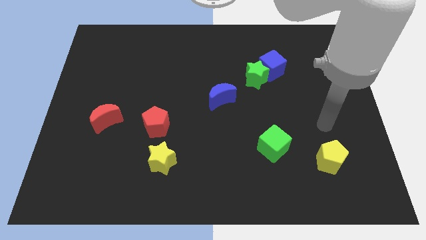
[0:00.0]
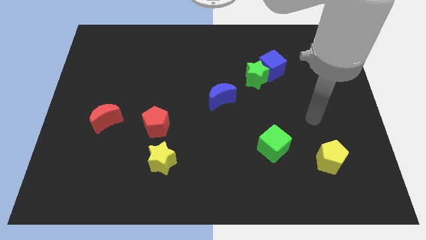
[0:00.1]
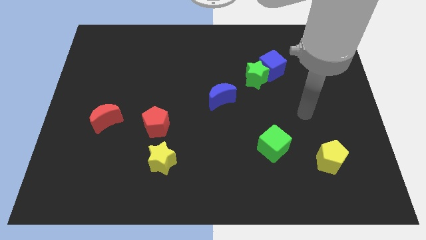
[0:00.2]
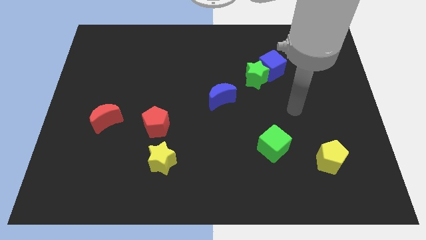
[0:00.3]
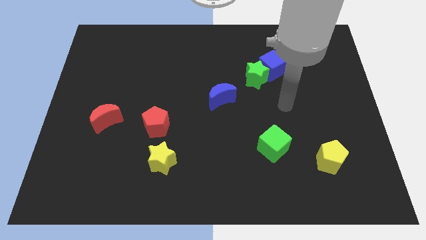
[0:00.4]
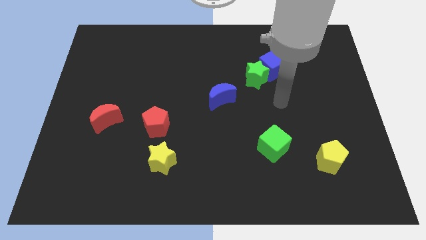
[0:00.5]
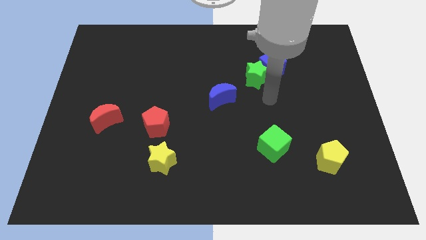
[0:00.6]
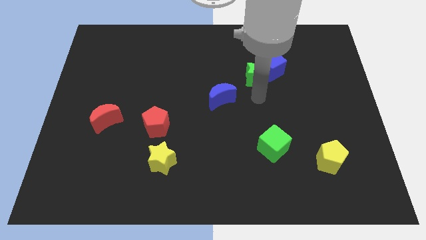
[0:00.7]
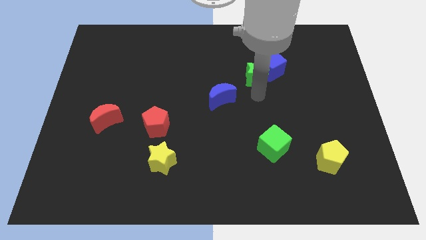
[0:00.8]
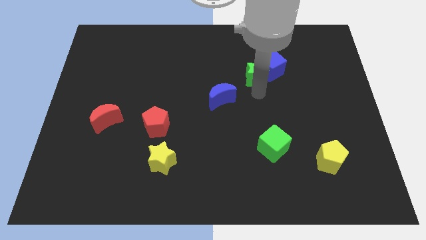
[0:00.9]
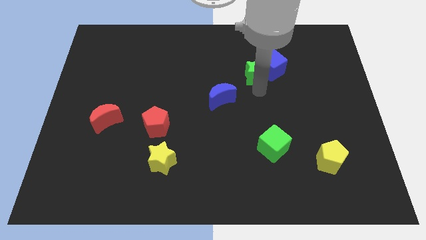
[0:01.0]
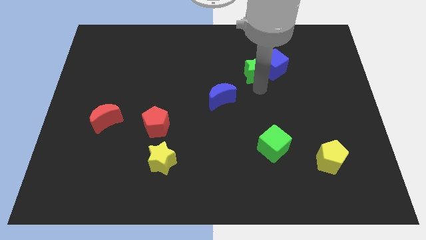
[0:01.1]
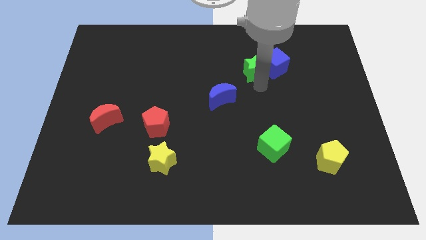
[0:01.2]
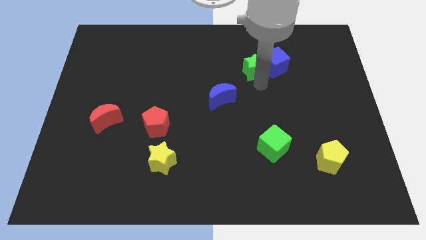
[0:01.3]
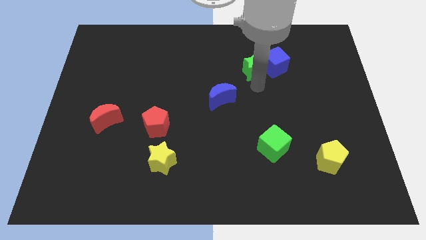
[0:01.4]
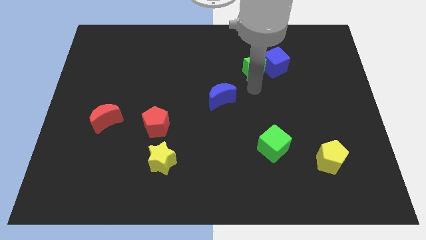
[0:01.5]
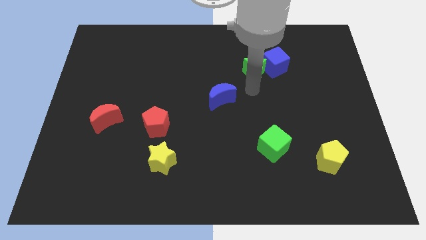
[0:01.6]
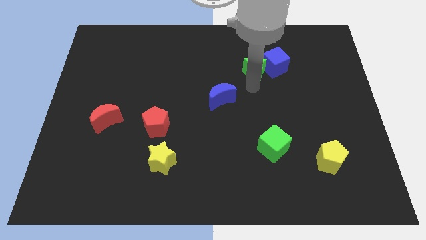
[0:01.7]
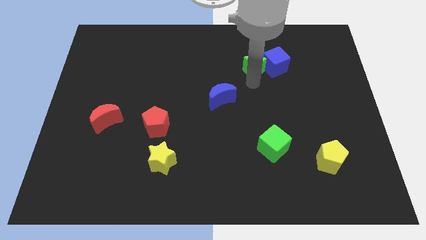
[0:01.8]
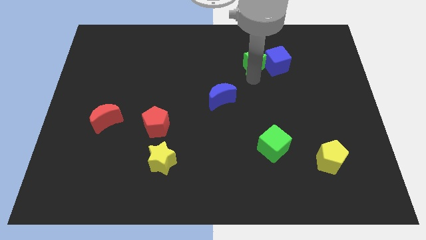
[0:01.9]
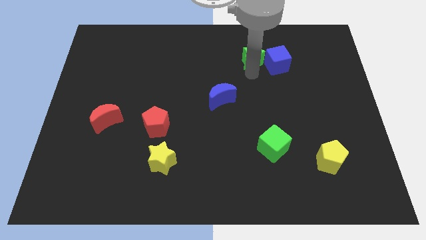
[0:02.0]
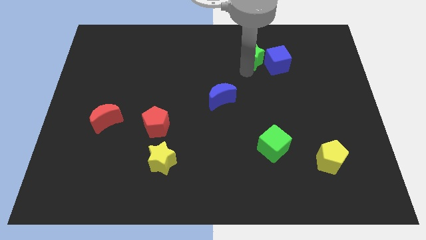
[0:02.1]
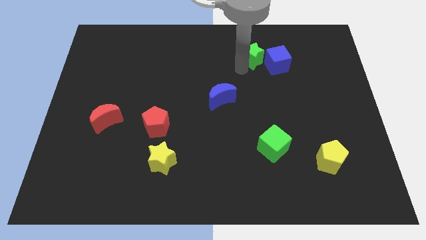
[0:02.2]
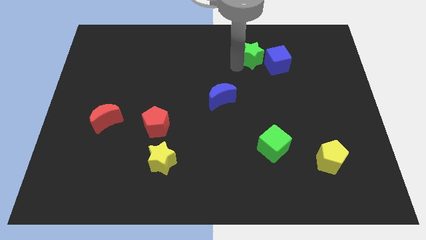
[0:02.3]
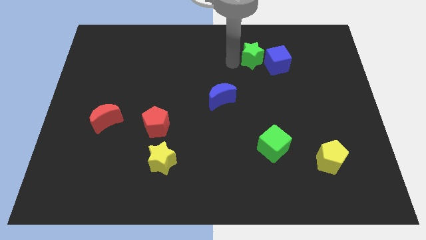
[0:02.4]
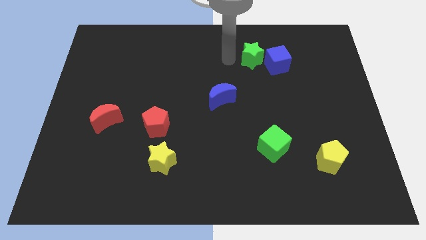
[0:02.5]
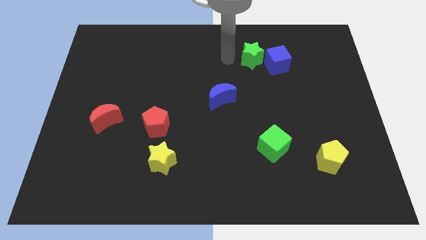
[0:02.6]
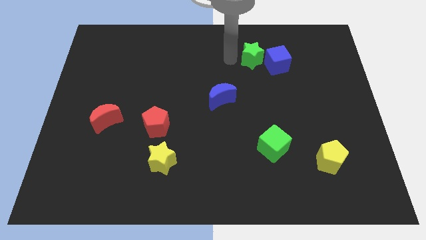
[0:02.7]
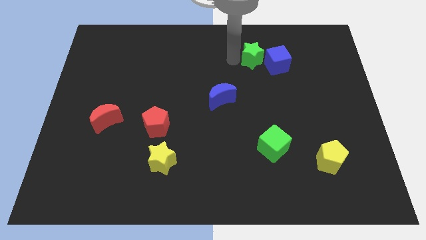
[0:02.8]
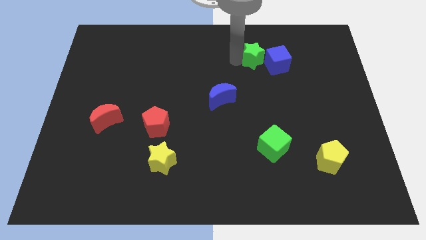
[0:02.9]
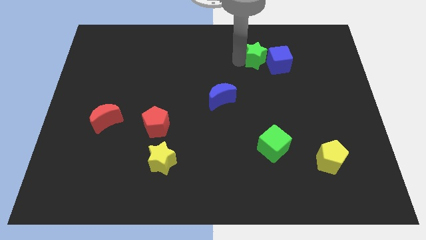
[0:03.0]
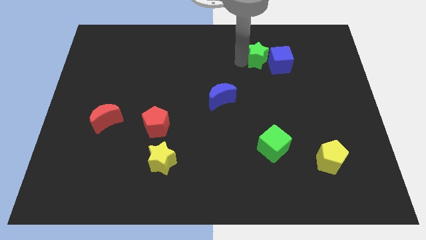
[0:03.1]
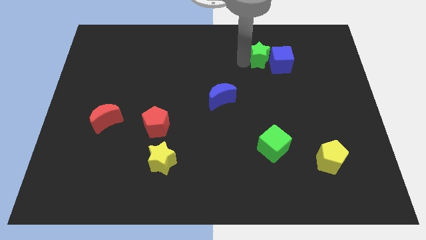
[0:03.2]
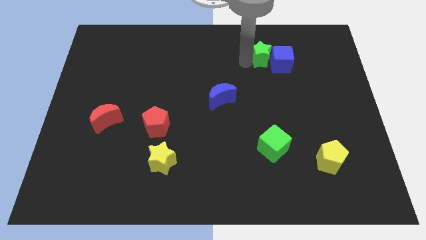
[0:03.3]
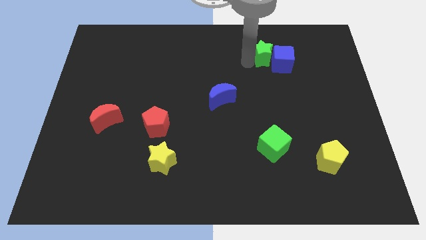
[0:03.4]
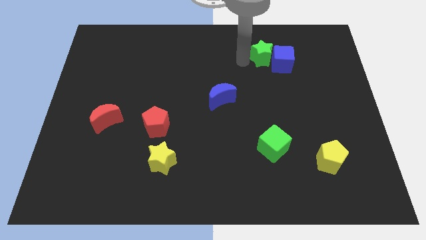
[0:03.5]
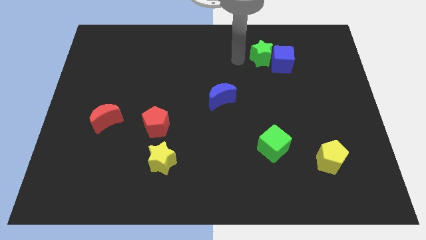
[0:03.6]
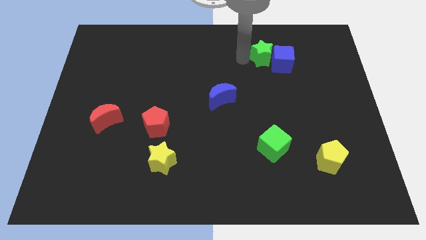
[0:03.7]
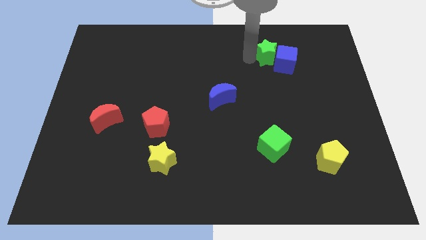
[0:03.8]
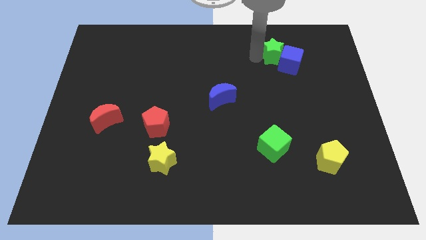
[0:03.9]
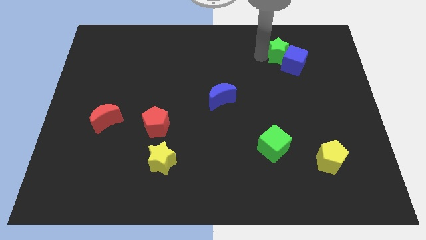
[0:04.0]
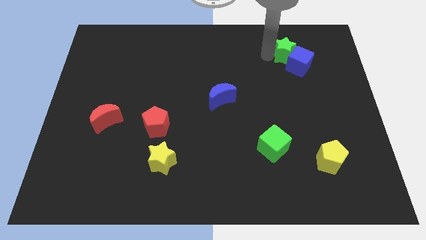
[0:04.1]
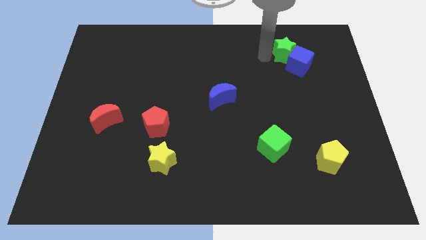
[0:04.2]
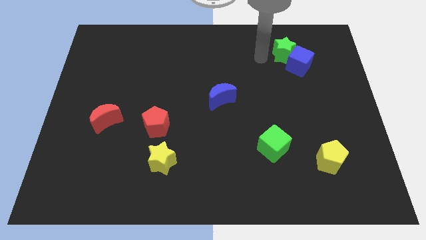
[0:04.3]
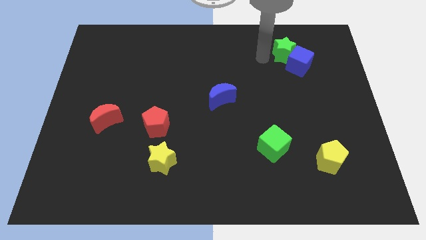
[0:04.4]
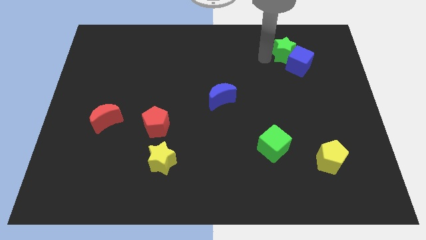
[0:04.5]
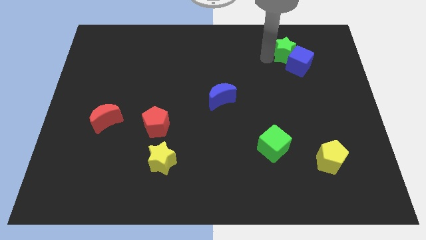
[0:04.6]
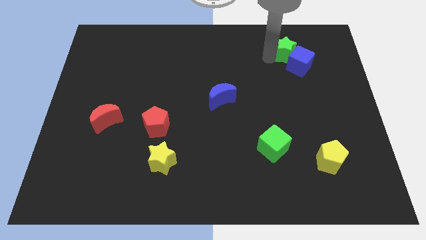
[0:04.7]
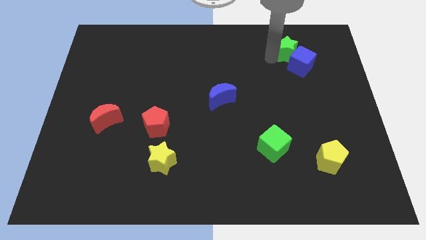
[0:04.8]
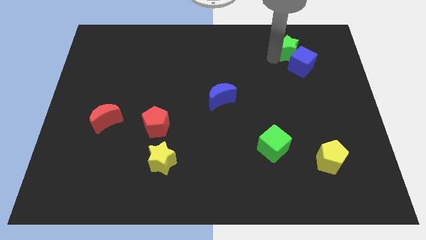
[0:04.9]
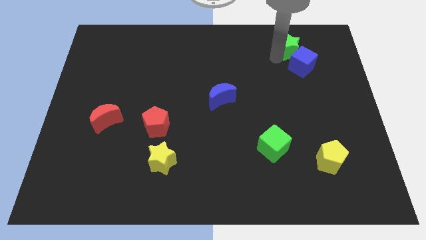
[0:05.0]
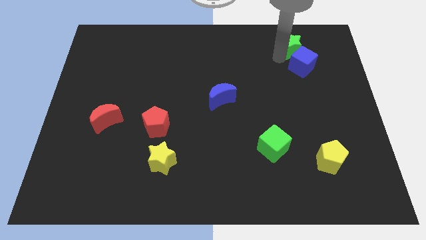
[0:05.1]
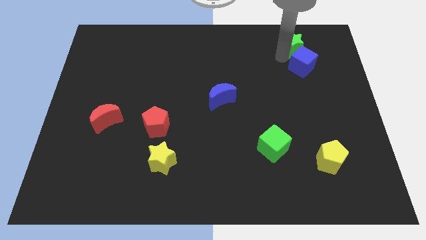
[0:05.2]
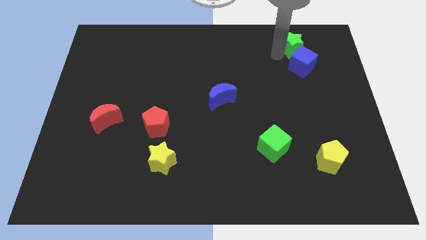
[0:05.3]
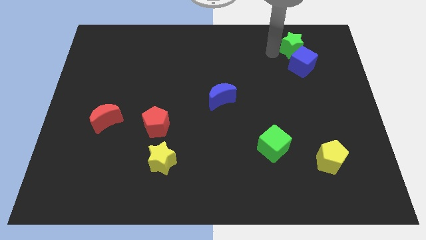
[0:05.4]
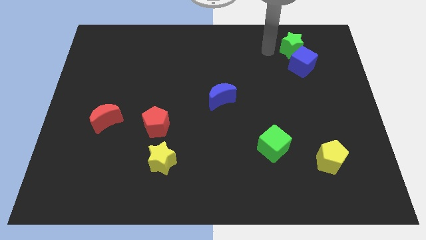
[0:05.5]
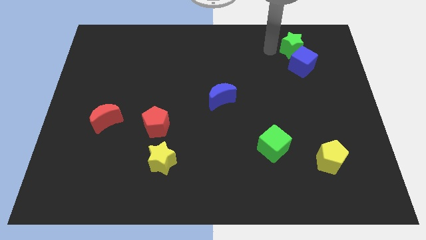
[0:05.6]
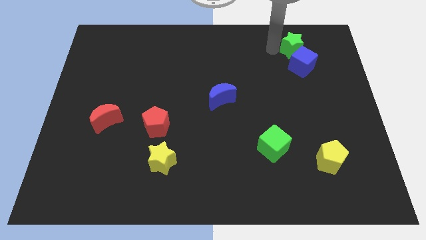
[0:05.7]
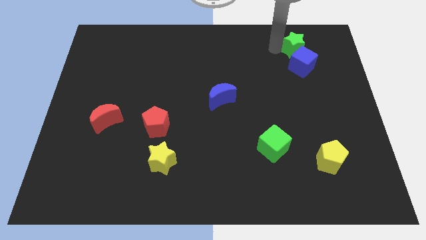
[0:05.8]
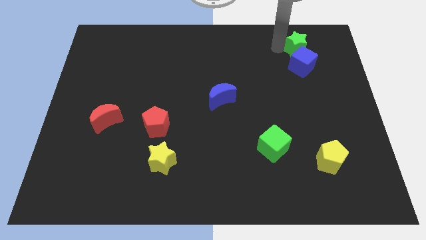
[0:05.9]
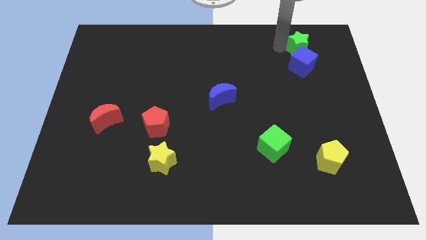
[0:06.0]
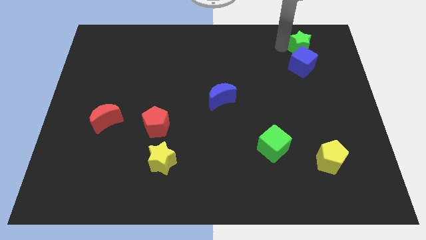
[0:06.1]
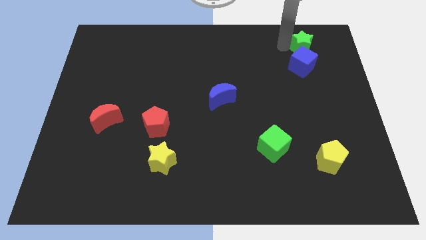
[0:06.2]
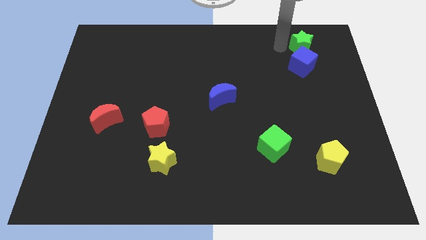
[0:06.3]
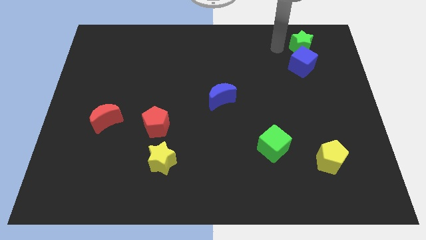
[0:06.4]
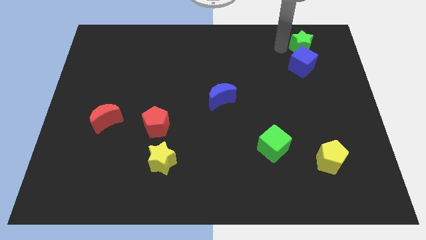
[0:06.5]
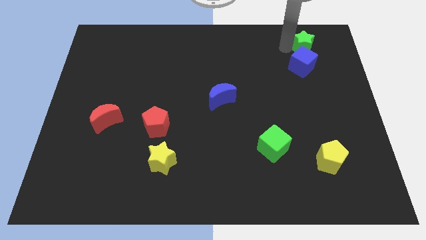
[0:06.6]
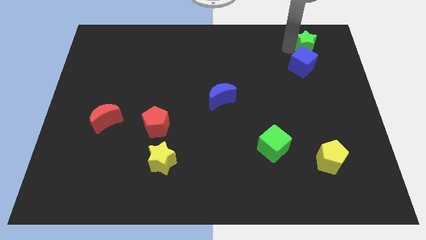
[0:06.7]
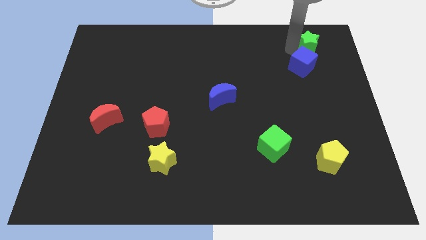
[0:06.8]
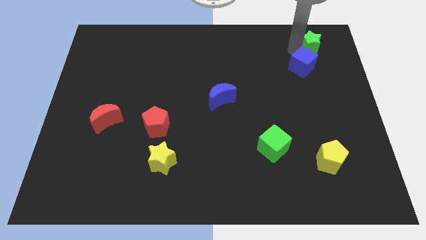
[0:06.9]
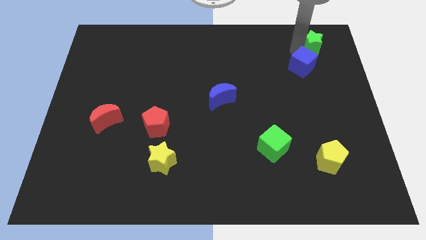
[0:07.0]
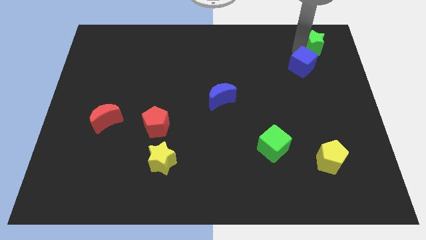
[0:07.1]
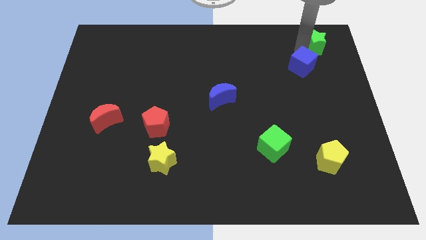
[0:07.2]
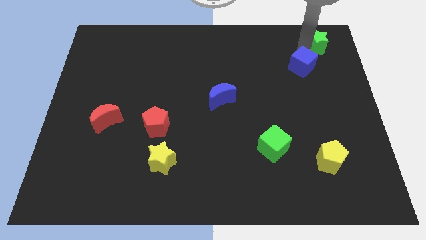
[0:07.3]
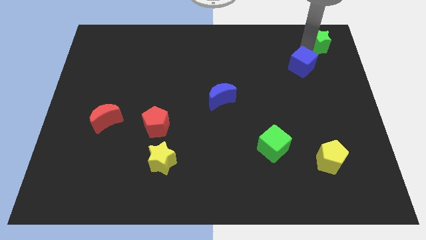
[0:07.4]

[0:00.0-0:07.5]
move the green star to the top right of the board
